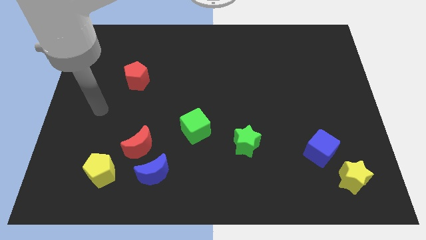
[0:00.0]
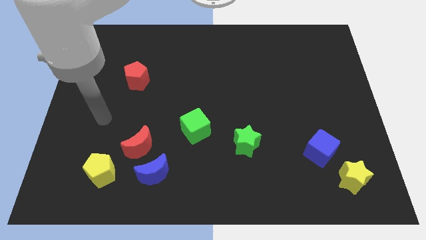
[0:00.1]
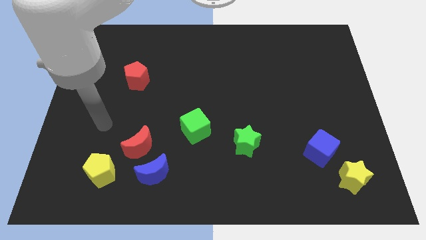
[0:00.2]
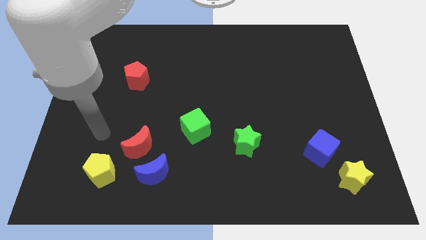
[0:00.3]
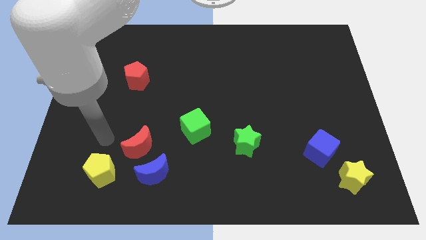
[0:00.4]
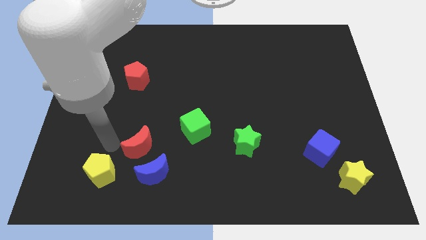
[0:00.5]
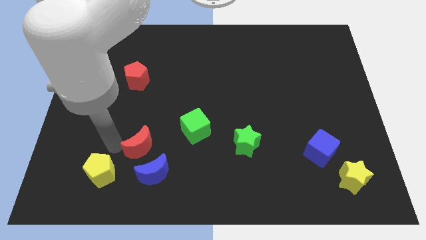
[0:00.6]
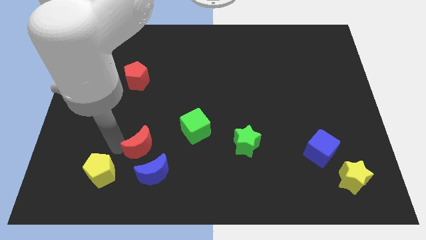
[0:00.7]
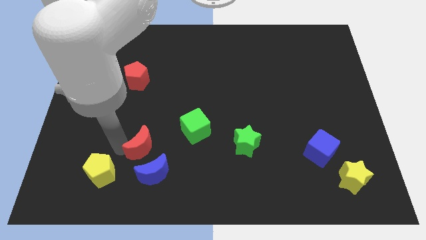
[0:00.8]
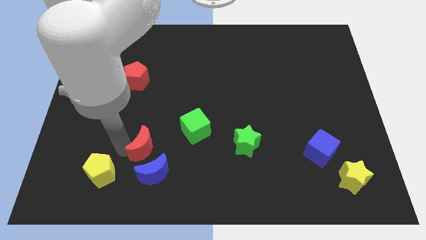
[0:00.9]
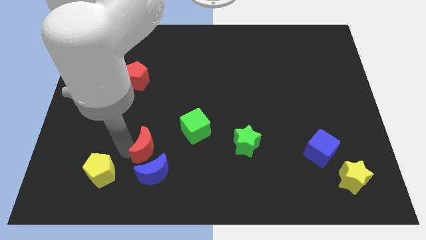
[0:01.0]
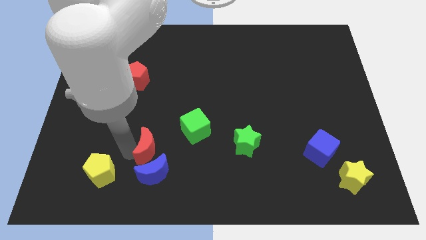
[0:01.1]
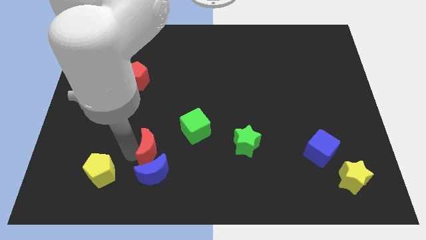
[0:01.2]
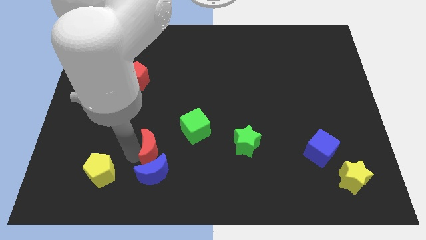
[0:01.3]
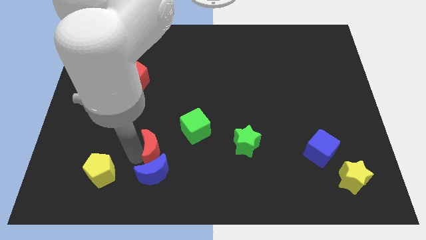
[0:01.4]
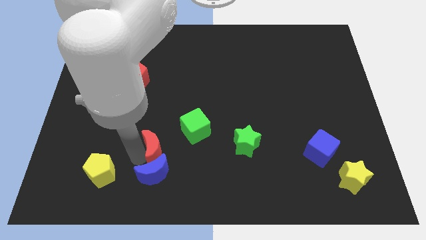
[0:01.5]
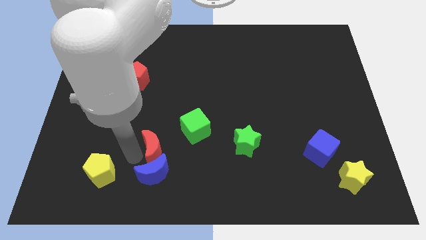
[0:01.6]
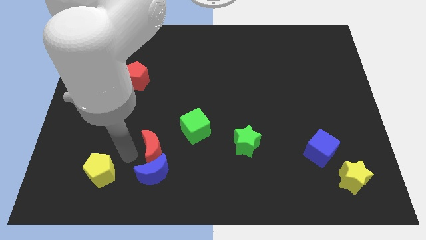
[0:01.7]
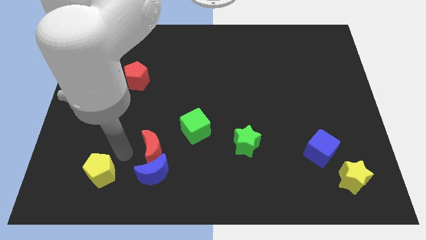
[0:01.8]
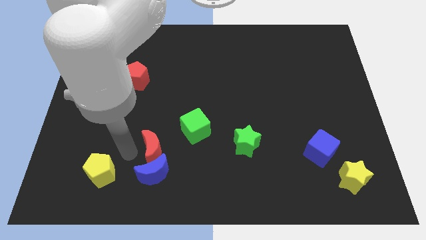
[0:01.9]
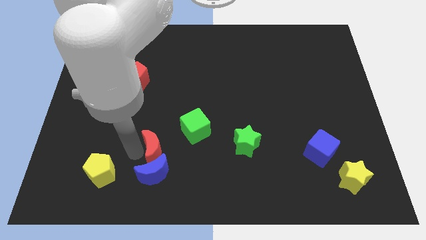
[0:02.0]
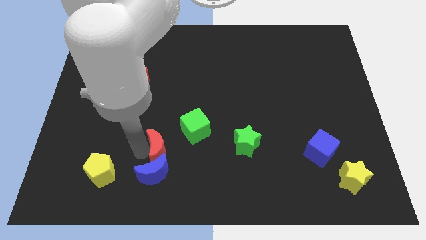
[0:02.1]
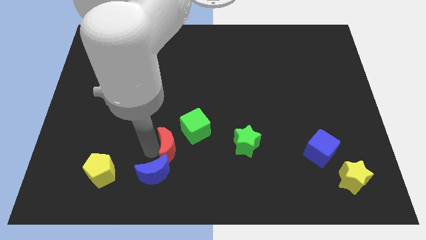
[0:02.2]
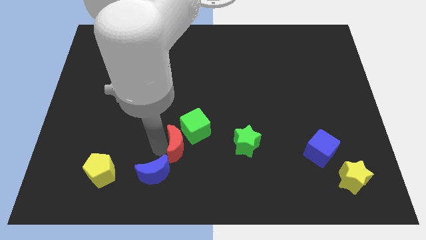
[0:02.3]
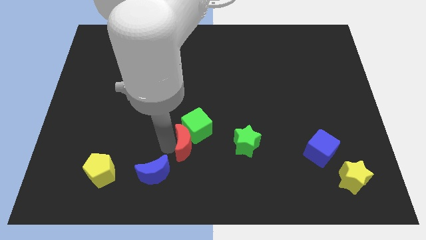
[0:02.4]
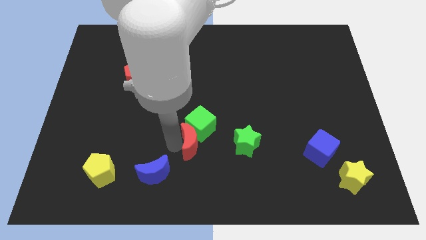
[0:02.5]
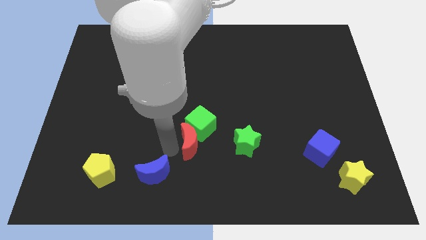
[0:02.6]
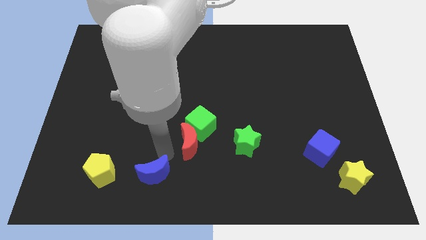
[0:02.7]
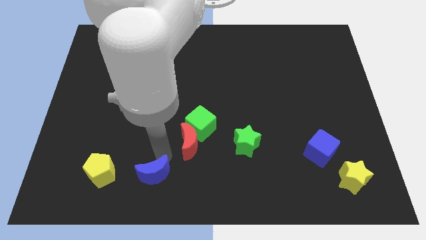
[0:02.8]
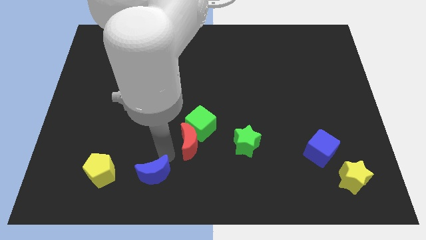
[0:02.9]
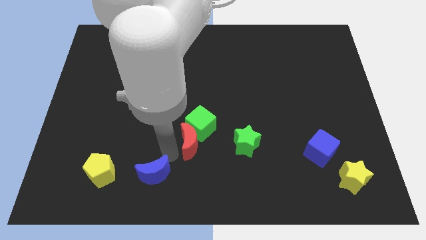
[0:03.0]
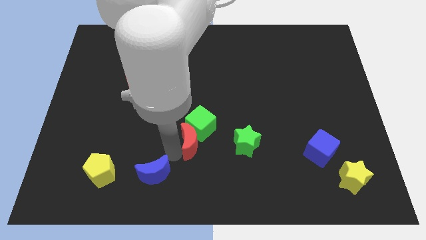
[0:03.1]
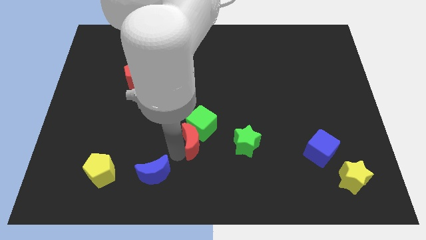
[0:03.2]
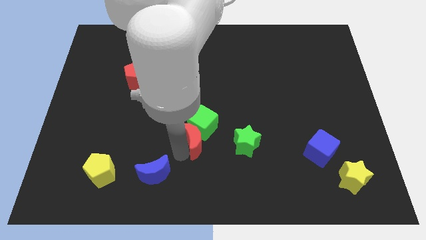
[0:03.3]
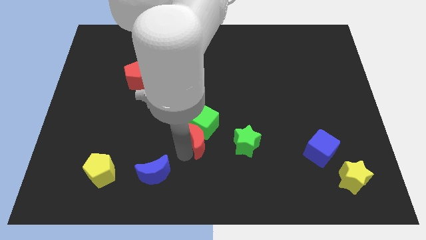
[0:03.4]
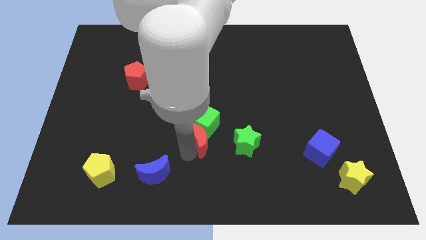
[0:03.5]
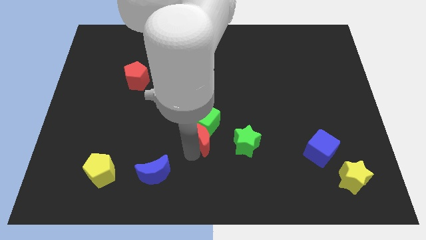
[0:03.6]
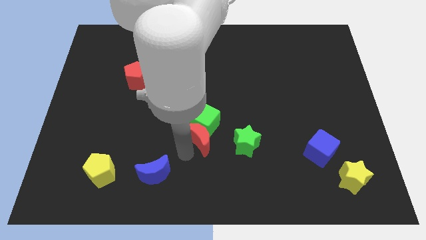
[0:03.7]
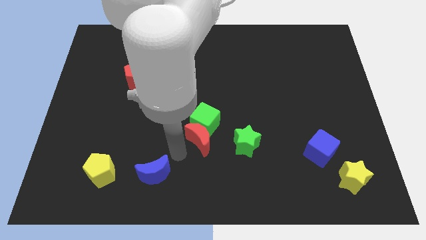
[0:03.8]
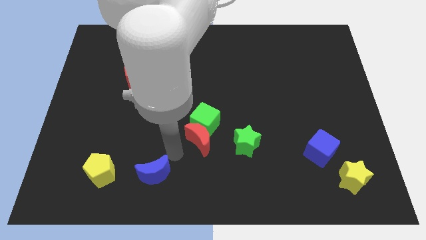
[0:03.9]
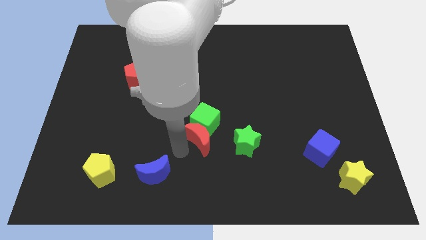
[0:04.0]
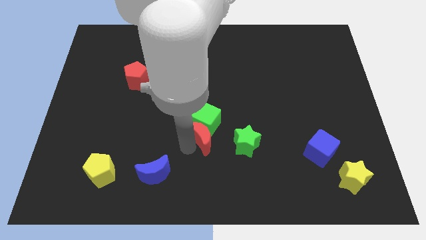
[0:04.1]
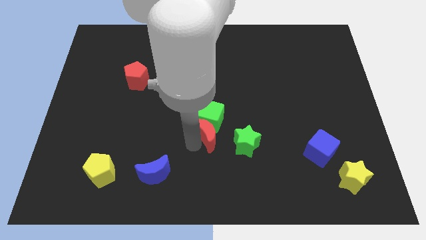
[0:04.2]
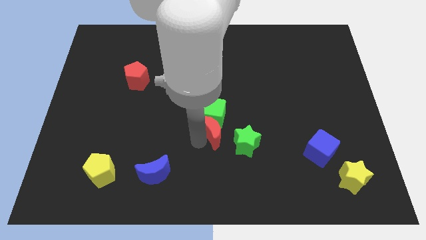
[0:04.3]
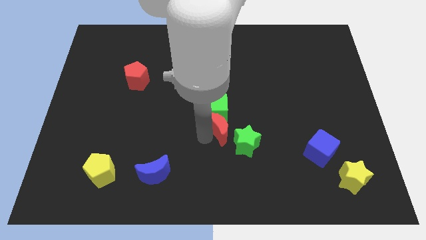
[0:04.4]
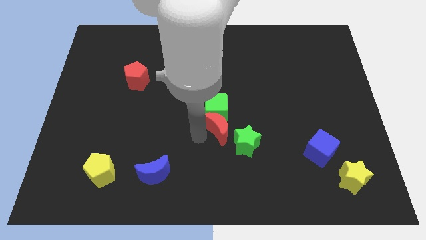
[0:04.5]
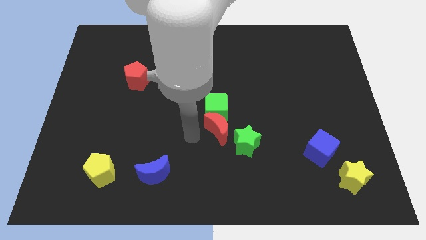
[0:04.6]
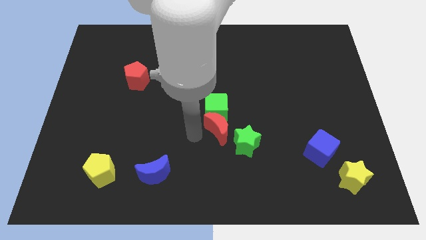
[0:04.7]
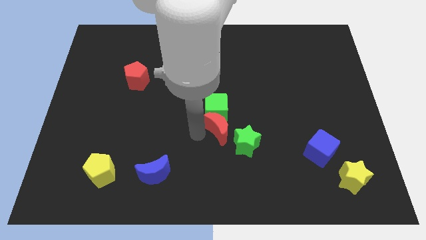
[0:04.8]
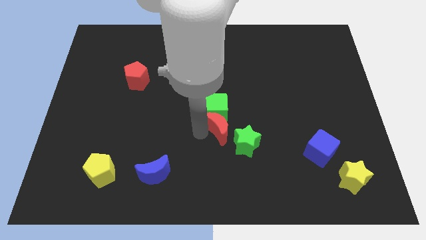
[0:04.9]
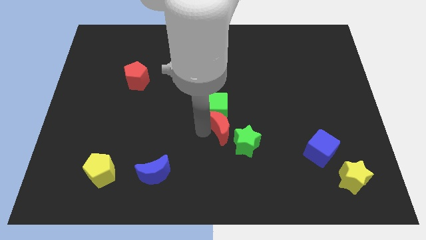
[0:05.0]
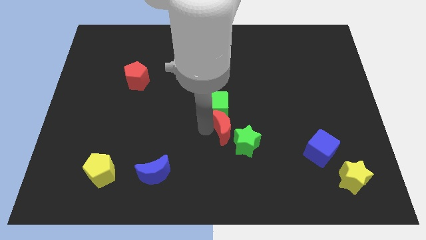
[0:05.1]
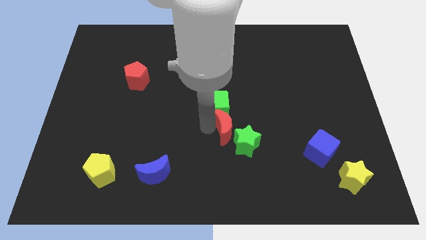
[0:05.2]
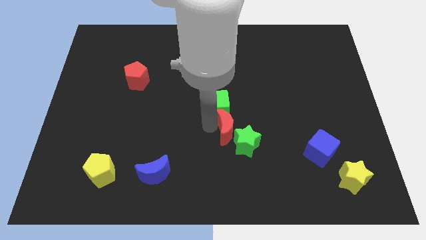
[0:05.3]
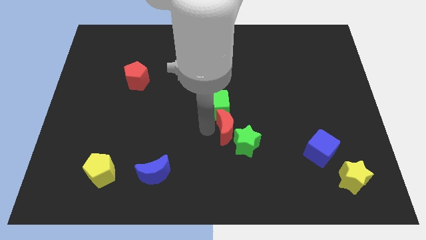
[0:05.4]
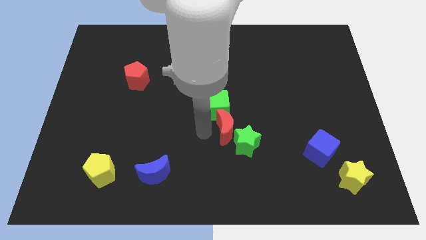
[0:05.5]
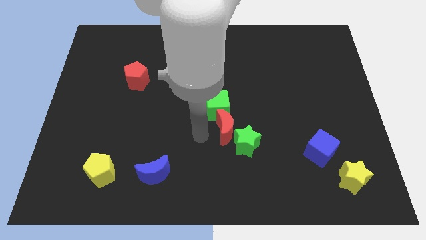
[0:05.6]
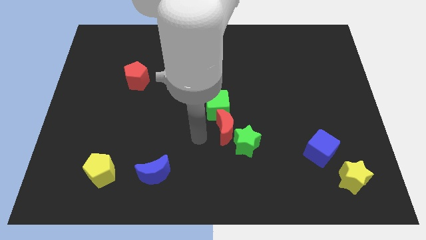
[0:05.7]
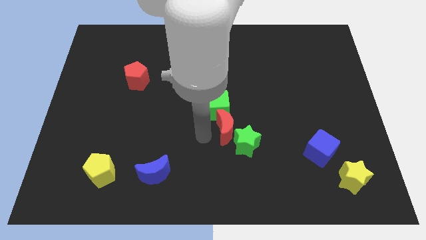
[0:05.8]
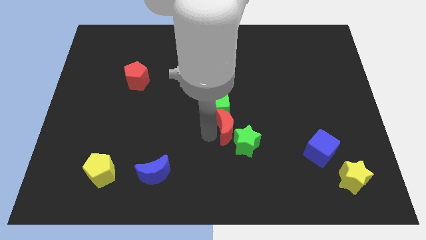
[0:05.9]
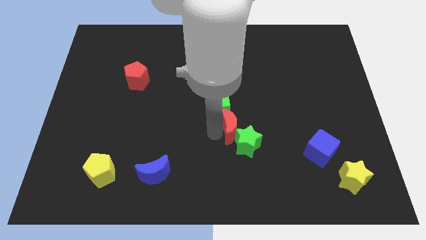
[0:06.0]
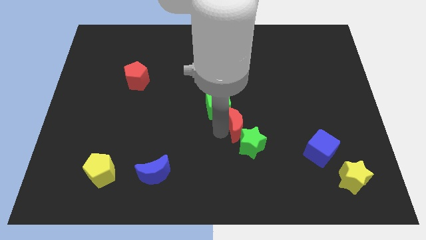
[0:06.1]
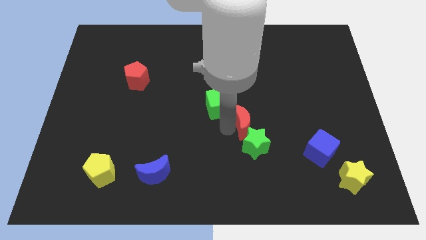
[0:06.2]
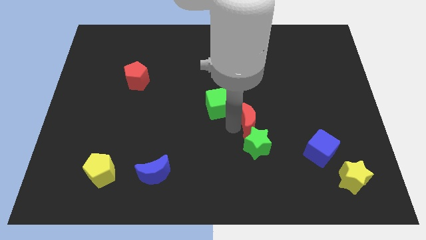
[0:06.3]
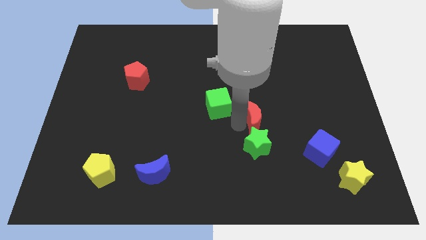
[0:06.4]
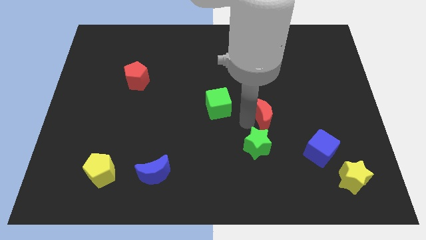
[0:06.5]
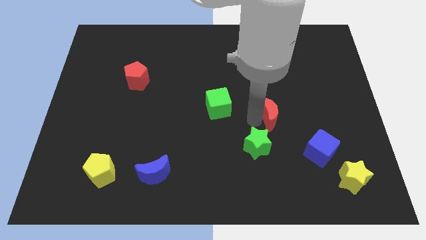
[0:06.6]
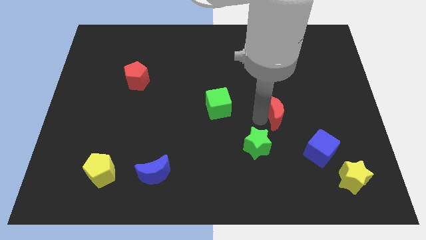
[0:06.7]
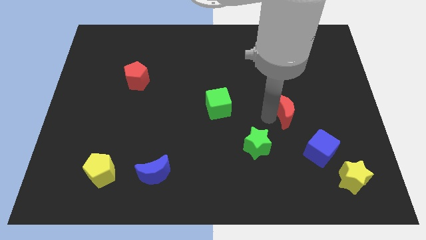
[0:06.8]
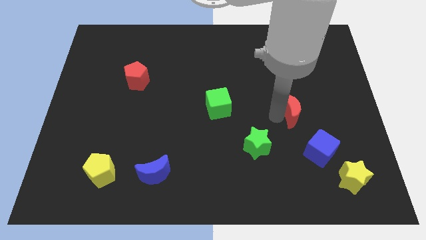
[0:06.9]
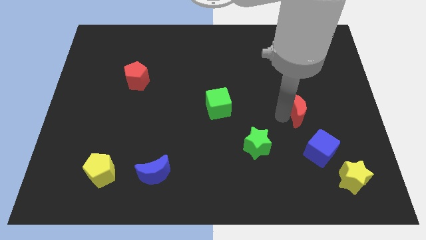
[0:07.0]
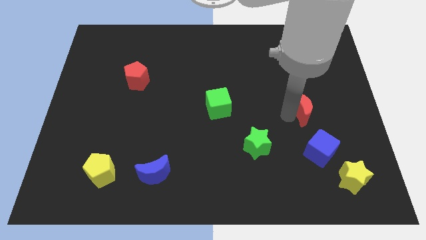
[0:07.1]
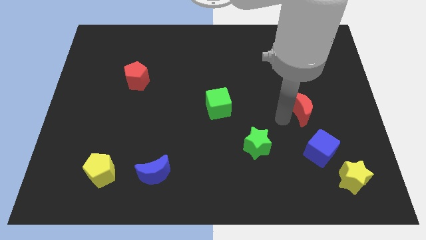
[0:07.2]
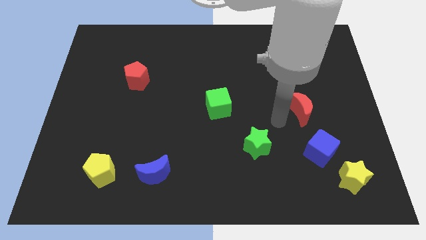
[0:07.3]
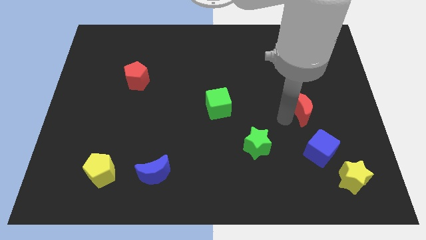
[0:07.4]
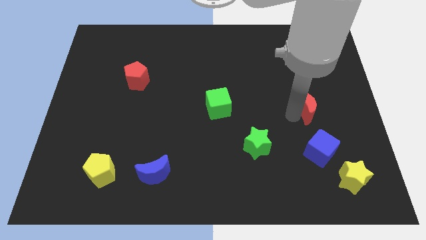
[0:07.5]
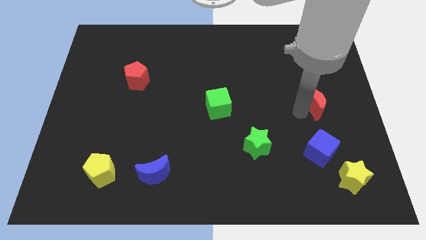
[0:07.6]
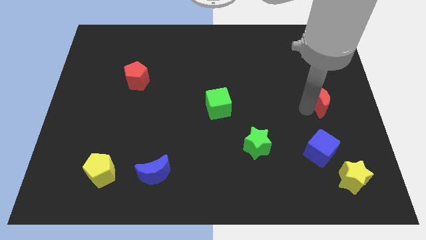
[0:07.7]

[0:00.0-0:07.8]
push the red moon to the center right
